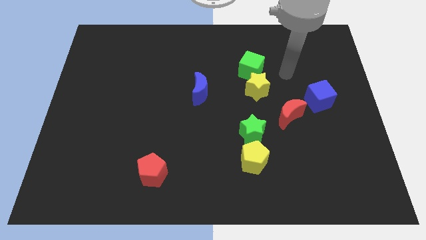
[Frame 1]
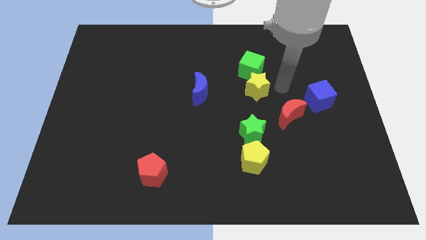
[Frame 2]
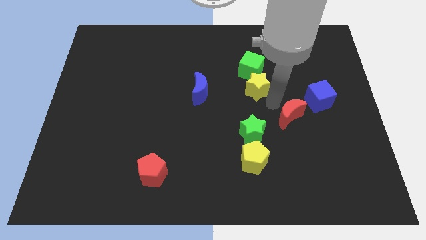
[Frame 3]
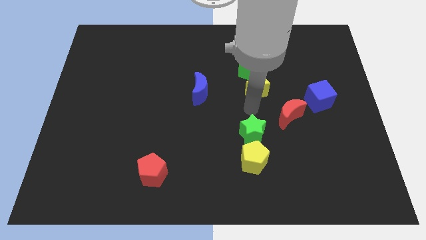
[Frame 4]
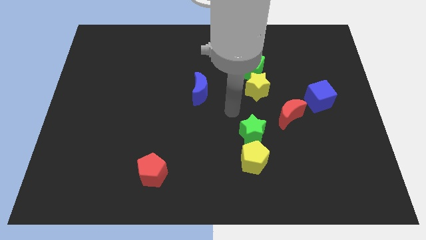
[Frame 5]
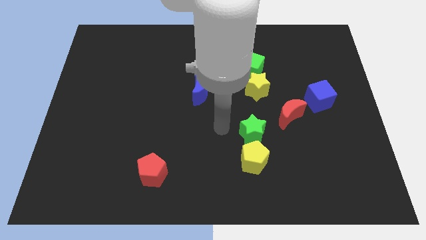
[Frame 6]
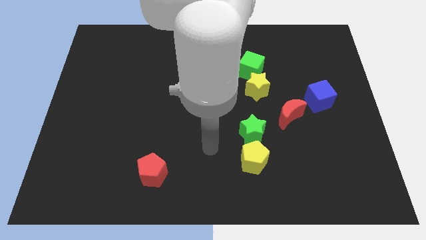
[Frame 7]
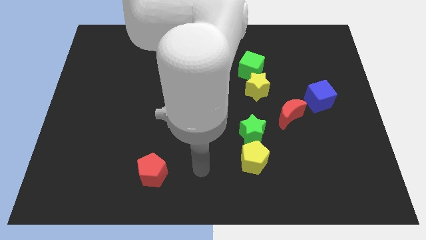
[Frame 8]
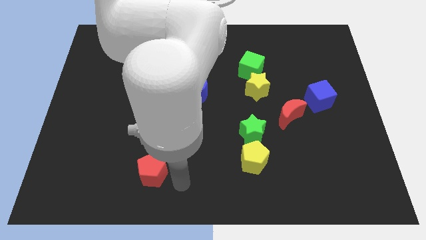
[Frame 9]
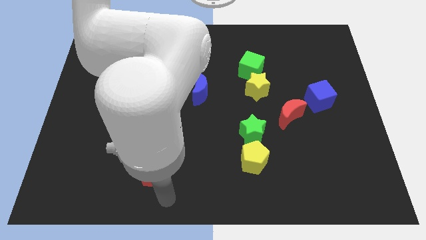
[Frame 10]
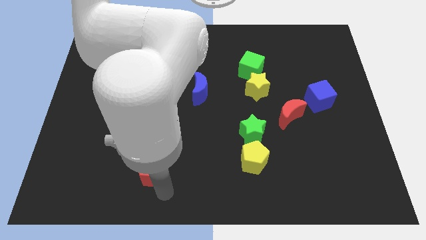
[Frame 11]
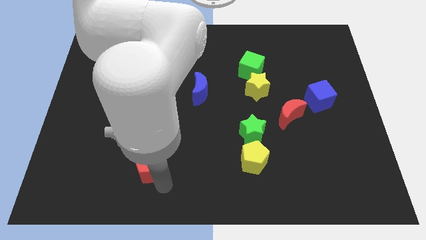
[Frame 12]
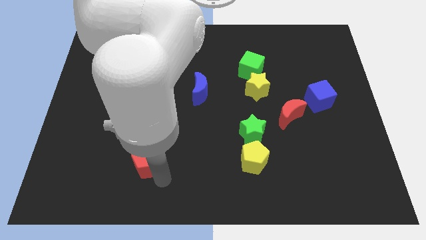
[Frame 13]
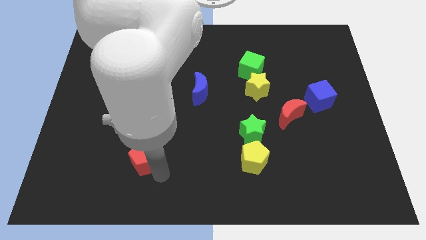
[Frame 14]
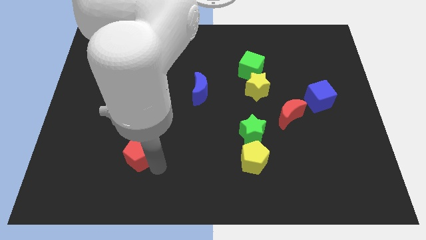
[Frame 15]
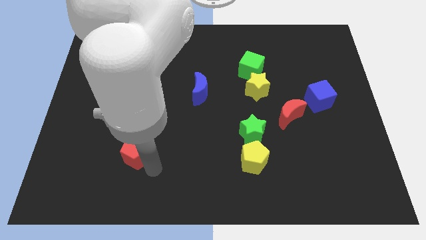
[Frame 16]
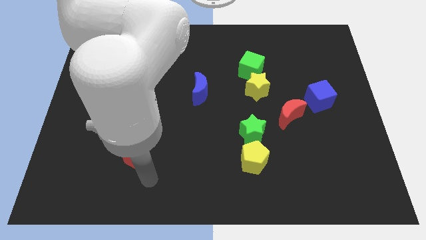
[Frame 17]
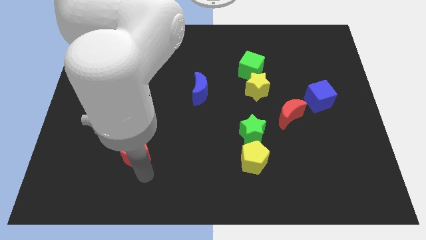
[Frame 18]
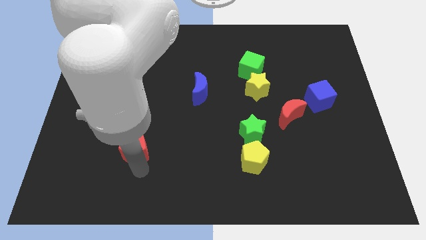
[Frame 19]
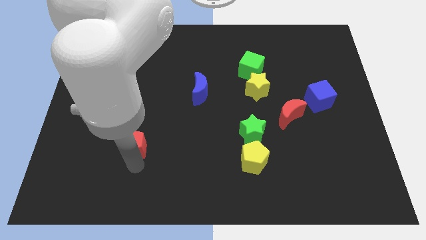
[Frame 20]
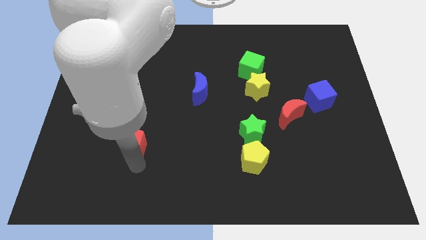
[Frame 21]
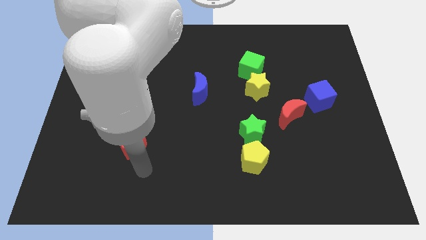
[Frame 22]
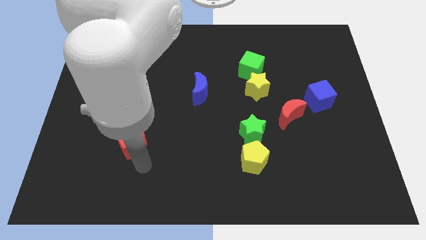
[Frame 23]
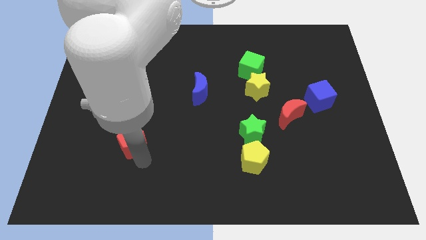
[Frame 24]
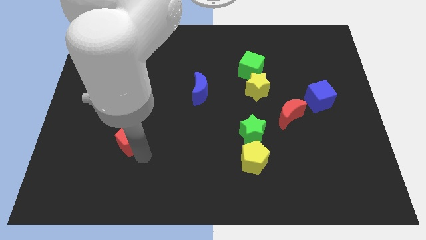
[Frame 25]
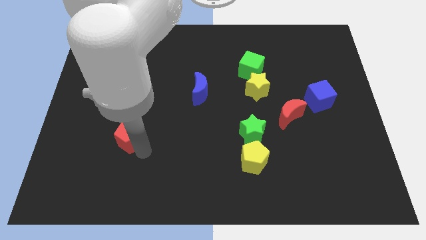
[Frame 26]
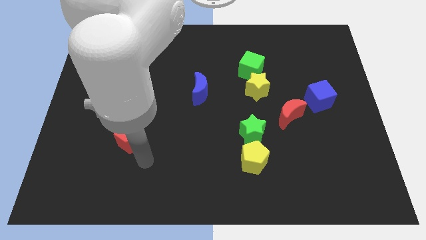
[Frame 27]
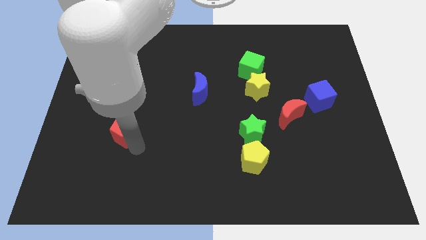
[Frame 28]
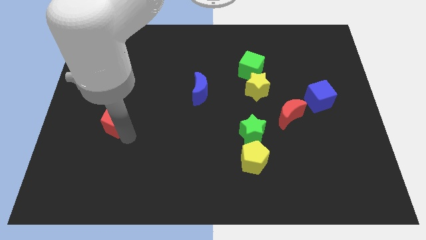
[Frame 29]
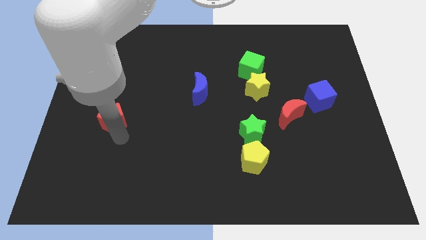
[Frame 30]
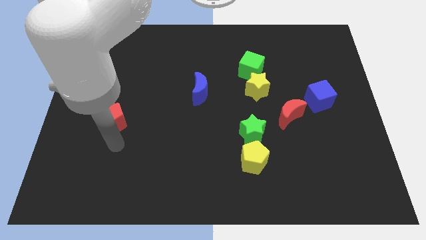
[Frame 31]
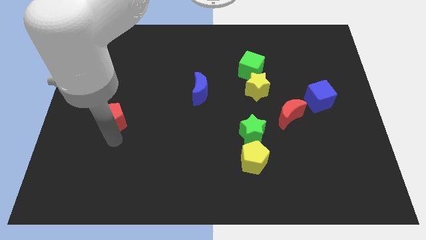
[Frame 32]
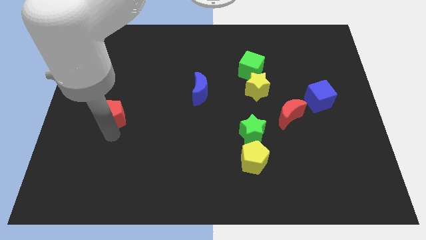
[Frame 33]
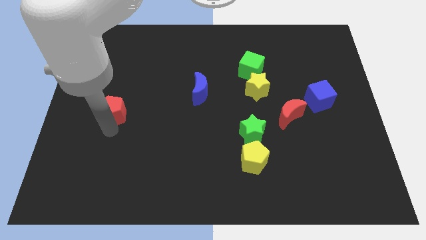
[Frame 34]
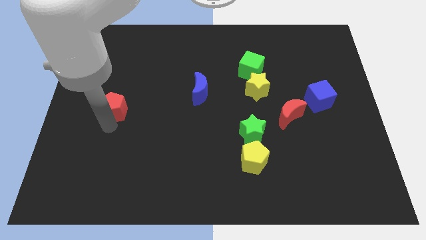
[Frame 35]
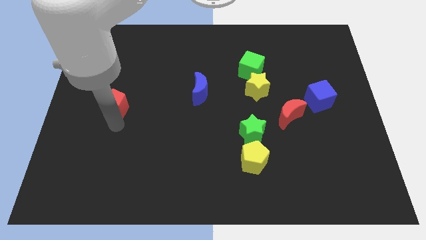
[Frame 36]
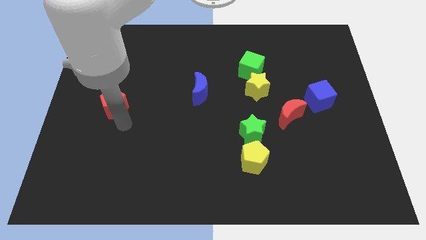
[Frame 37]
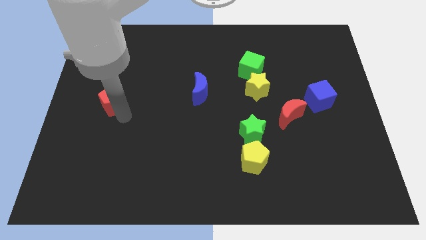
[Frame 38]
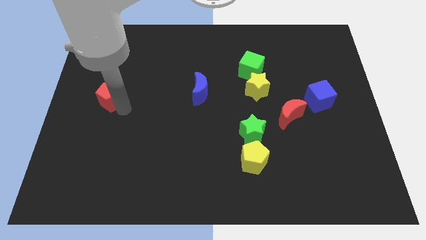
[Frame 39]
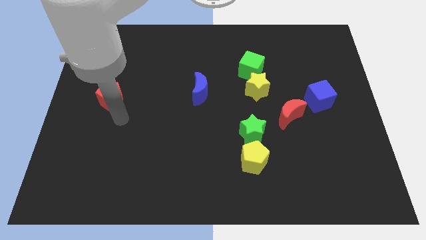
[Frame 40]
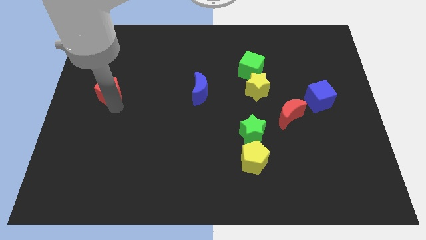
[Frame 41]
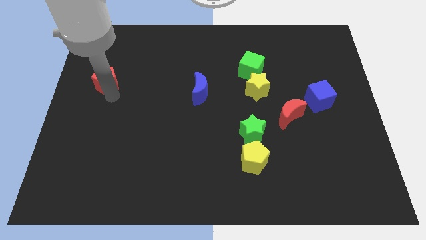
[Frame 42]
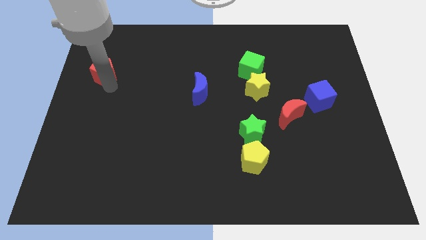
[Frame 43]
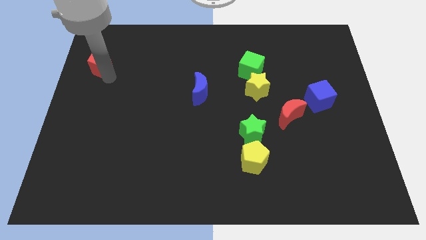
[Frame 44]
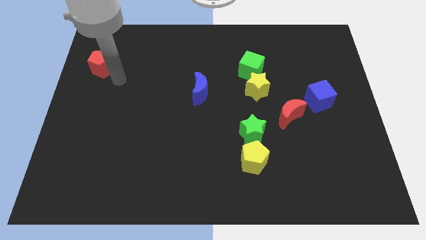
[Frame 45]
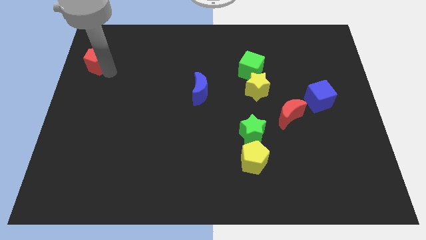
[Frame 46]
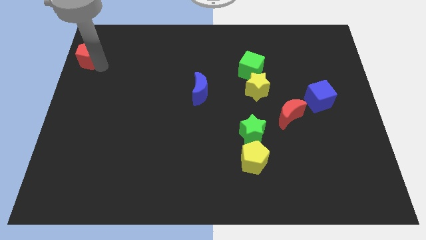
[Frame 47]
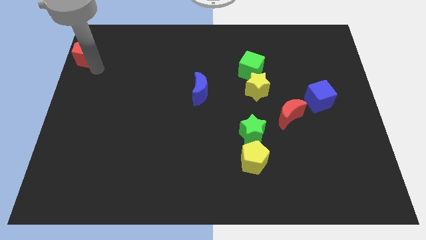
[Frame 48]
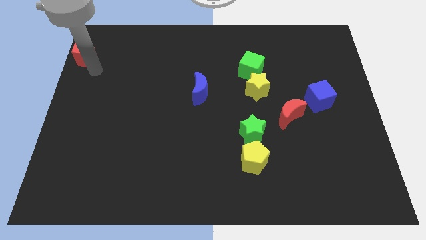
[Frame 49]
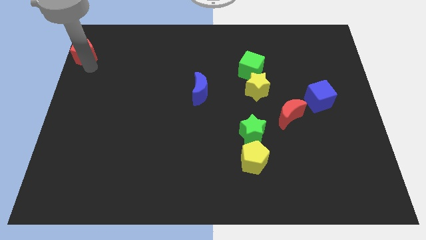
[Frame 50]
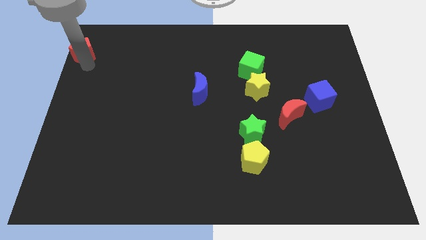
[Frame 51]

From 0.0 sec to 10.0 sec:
put the red pentagon to the upper left corner

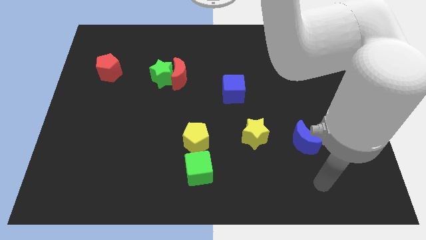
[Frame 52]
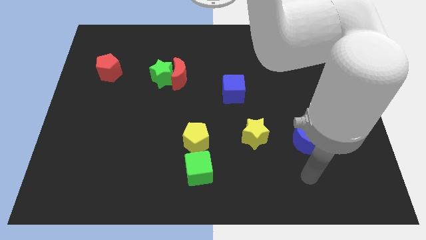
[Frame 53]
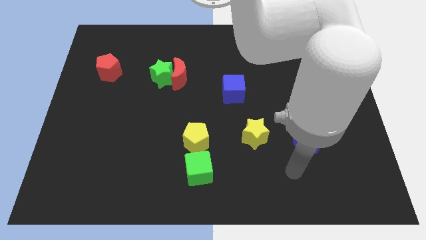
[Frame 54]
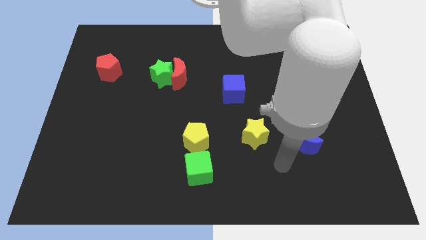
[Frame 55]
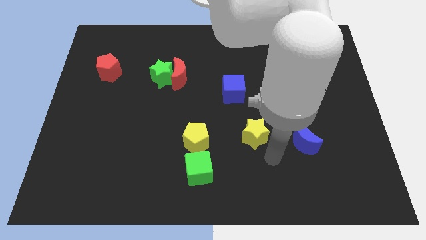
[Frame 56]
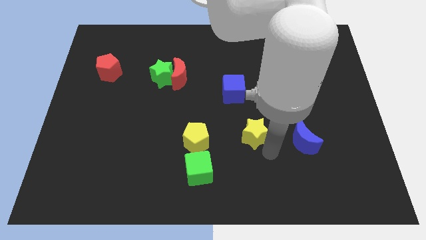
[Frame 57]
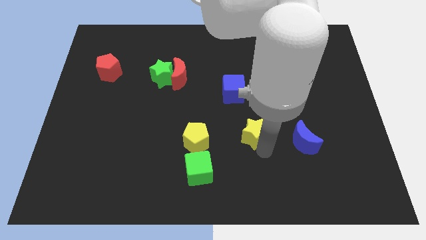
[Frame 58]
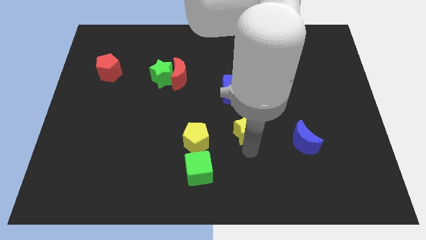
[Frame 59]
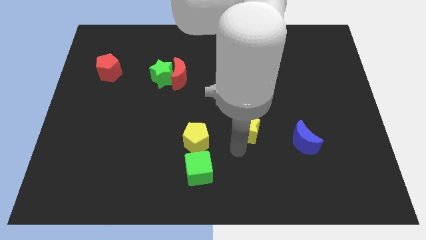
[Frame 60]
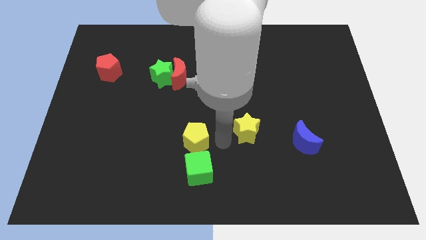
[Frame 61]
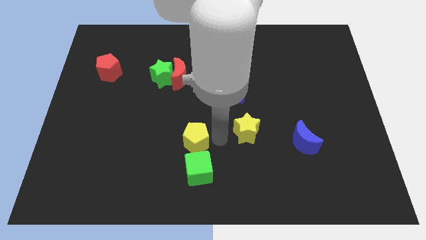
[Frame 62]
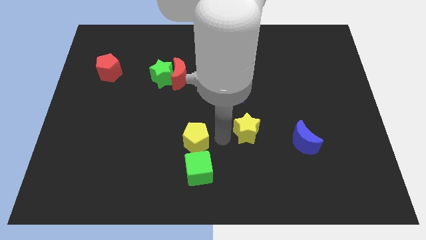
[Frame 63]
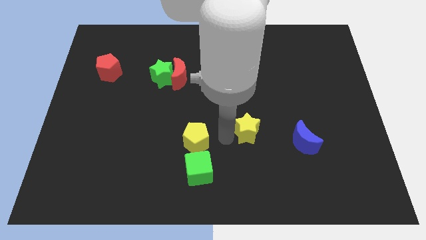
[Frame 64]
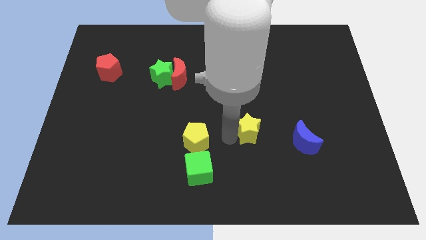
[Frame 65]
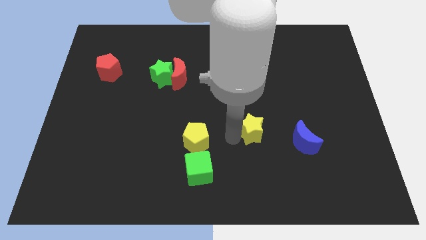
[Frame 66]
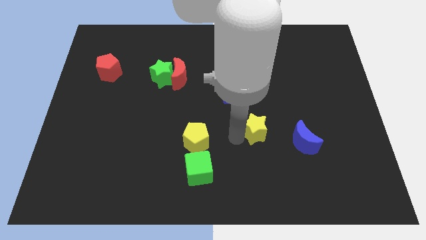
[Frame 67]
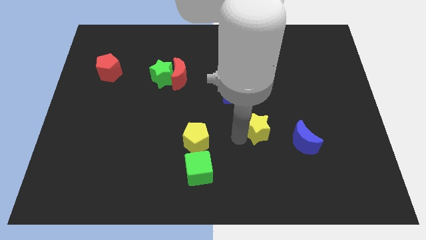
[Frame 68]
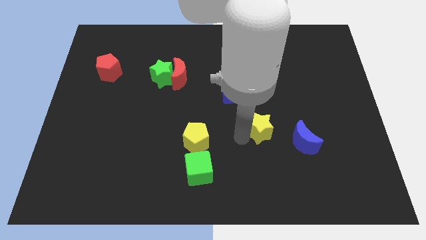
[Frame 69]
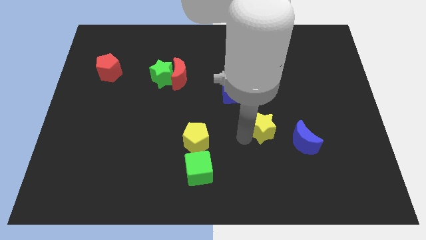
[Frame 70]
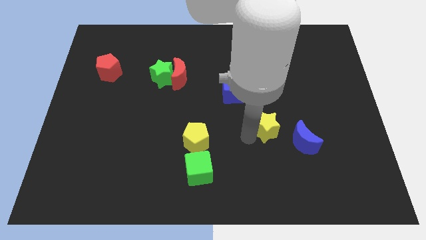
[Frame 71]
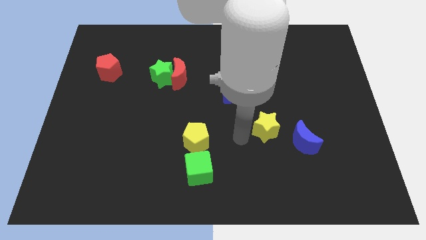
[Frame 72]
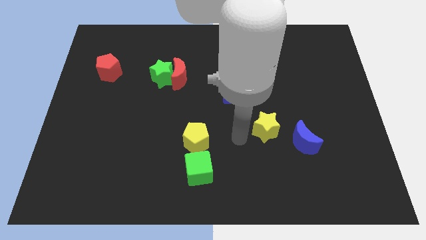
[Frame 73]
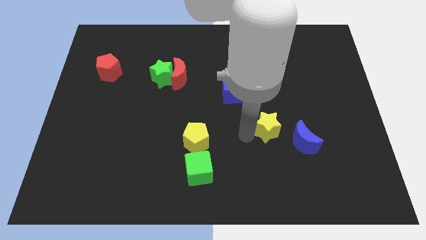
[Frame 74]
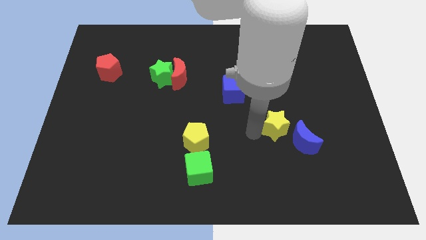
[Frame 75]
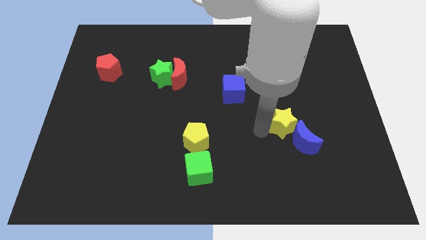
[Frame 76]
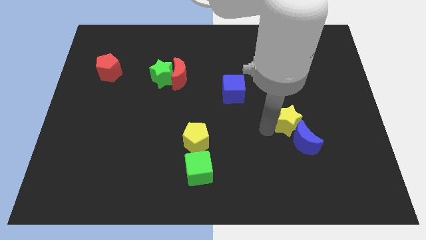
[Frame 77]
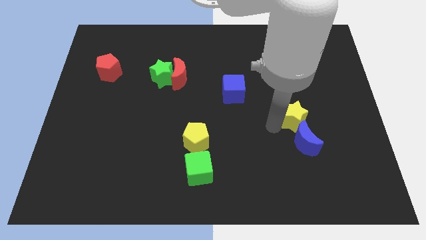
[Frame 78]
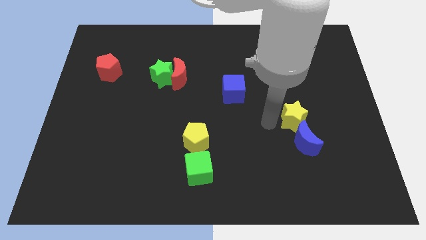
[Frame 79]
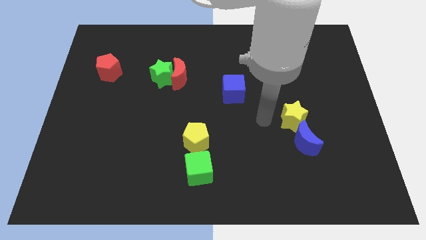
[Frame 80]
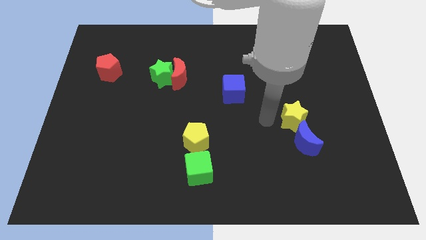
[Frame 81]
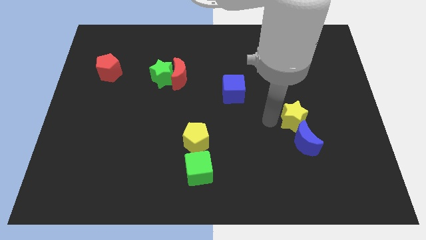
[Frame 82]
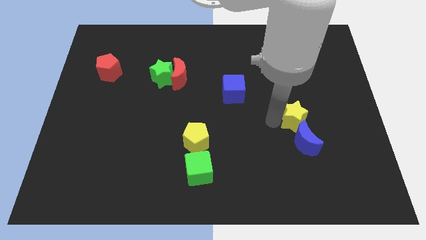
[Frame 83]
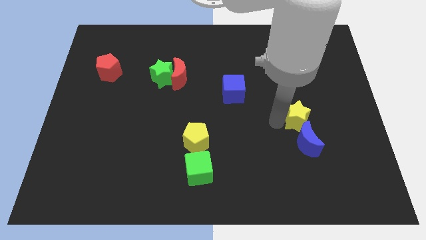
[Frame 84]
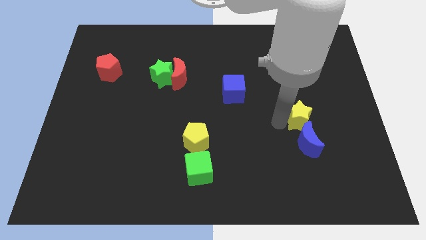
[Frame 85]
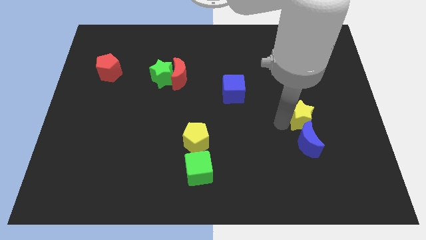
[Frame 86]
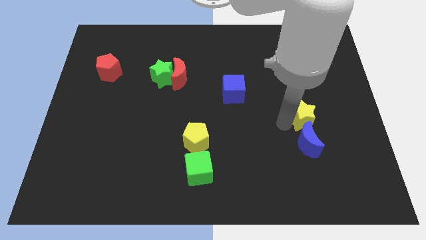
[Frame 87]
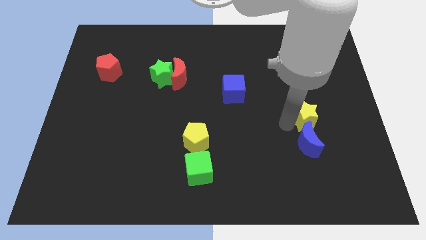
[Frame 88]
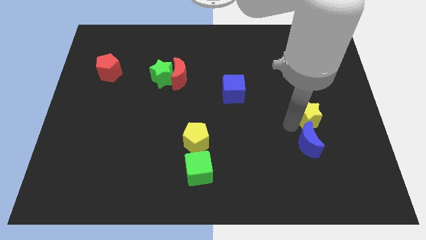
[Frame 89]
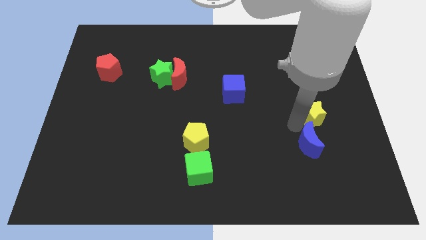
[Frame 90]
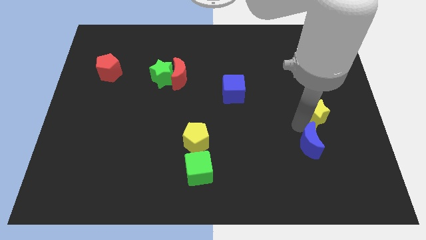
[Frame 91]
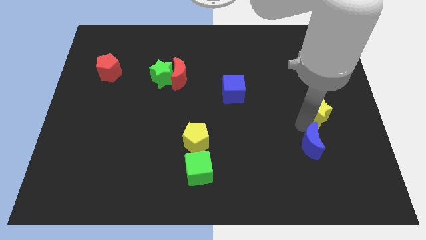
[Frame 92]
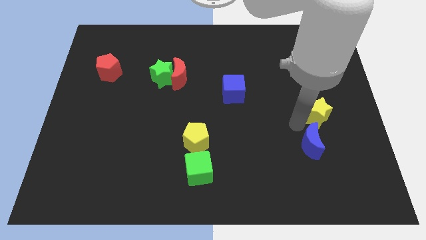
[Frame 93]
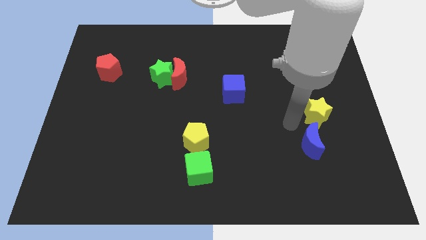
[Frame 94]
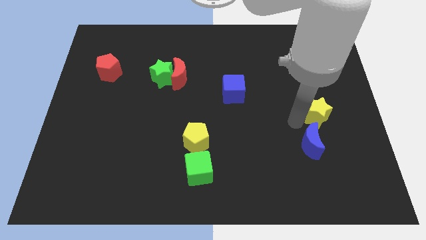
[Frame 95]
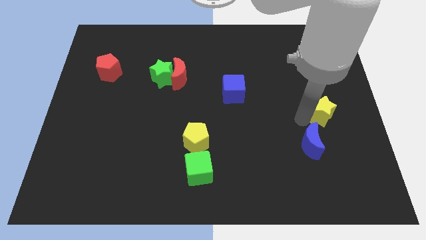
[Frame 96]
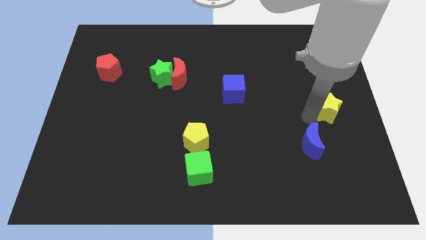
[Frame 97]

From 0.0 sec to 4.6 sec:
push the yellow star to the right side of the board
